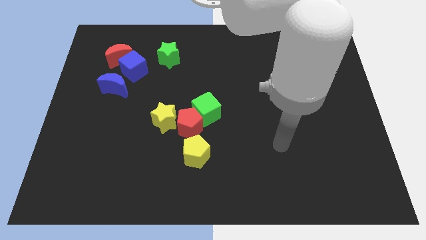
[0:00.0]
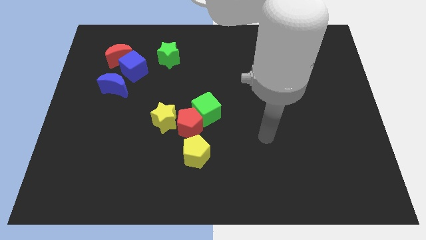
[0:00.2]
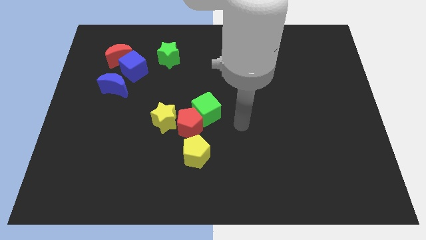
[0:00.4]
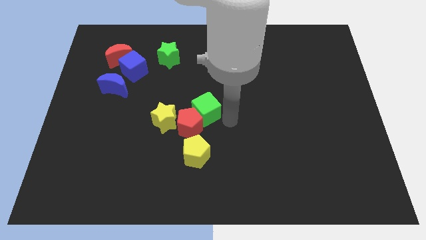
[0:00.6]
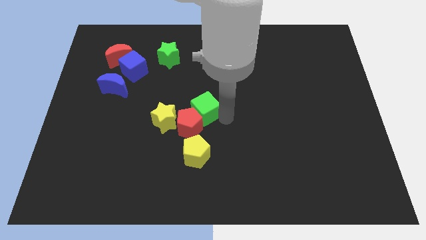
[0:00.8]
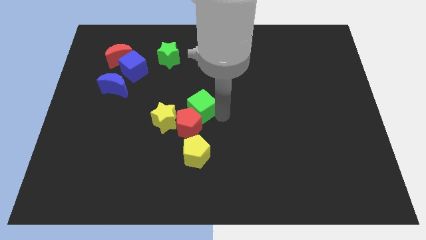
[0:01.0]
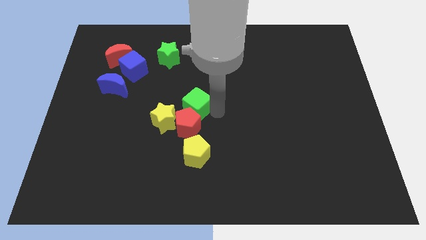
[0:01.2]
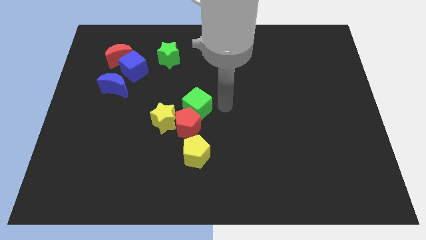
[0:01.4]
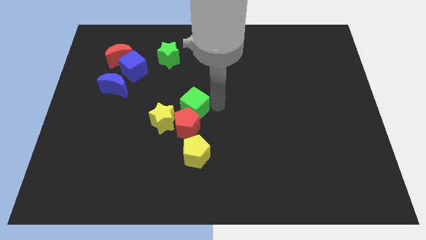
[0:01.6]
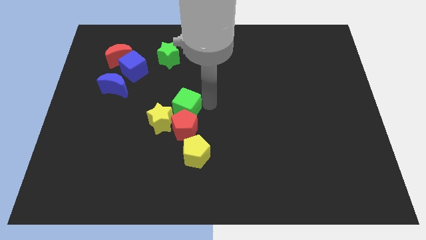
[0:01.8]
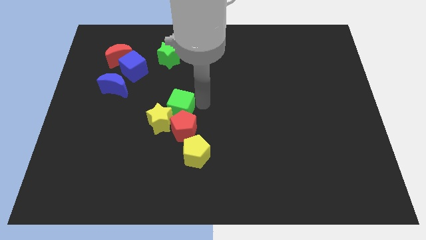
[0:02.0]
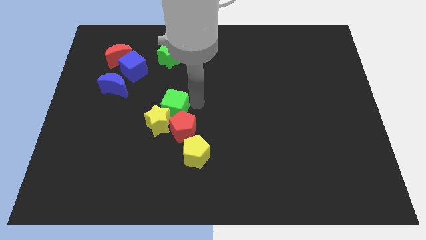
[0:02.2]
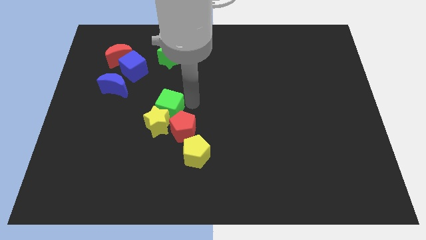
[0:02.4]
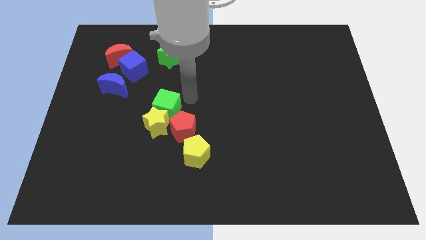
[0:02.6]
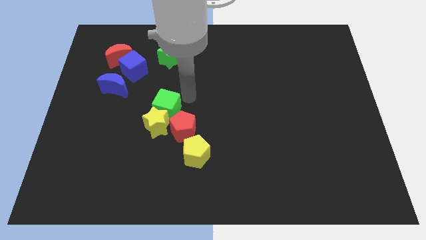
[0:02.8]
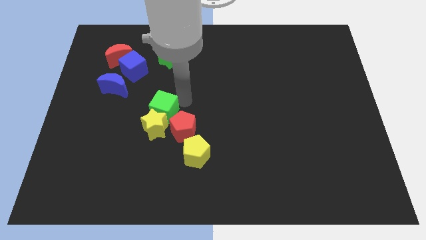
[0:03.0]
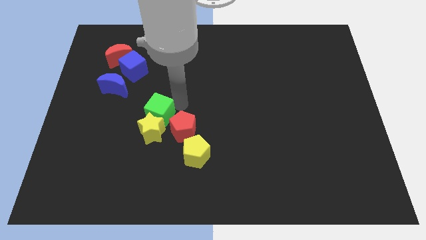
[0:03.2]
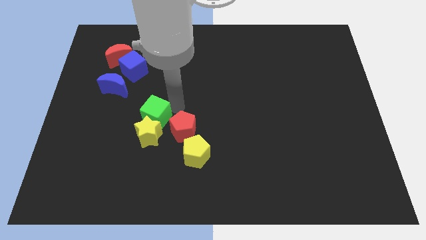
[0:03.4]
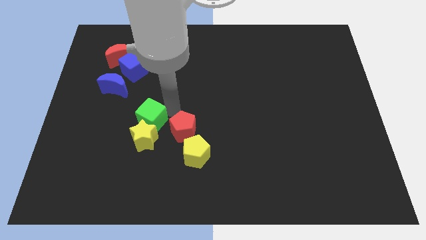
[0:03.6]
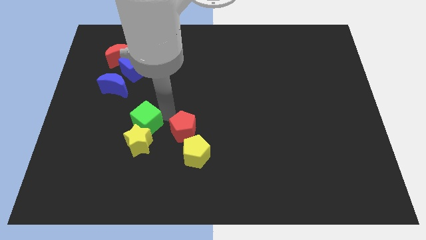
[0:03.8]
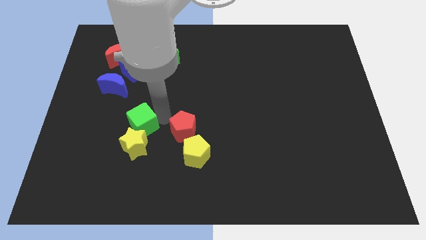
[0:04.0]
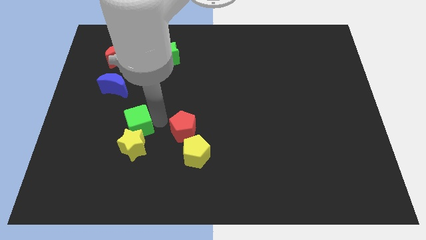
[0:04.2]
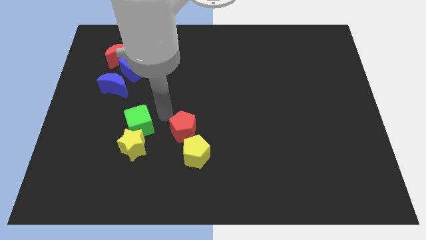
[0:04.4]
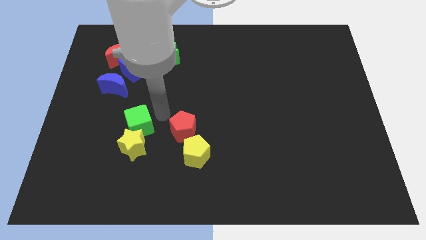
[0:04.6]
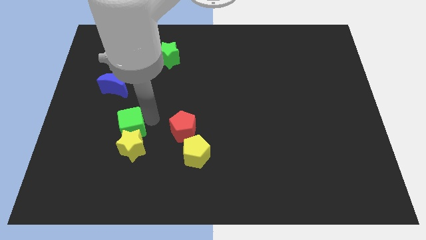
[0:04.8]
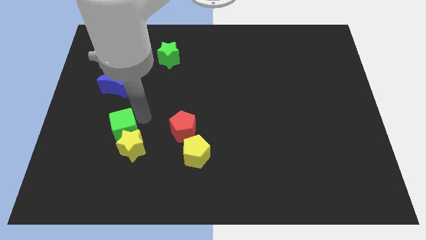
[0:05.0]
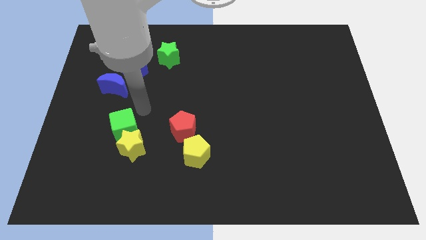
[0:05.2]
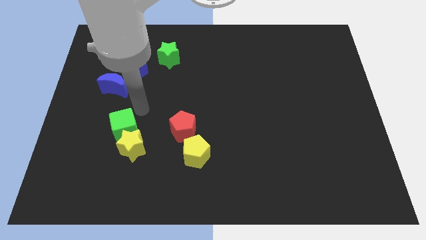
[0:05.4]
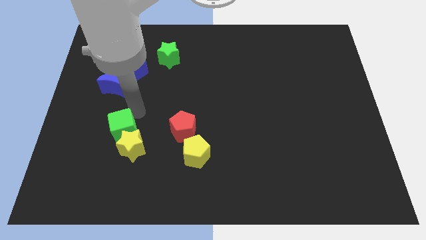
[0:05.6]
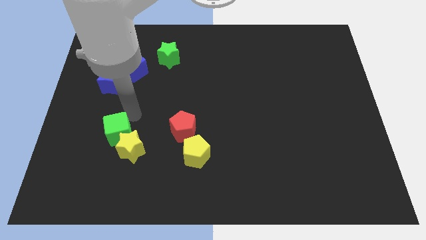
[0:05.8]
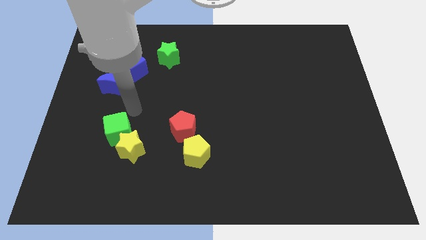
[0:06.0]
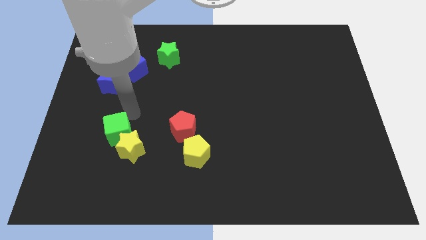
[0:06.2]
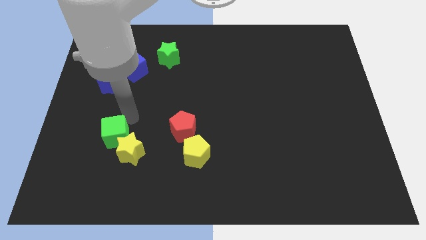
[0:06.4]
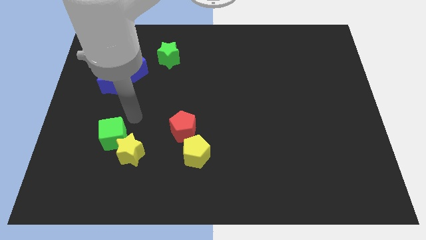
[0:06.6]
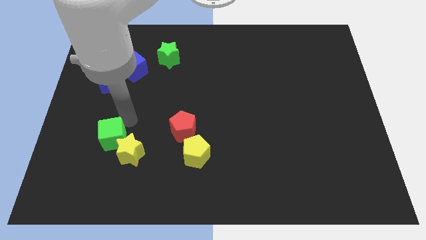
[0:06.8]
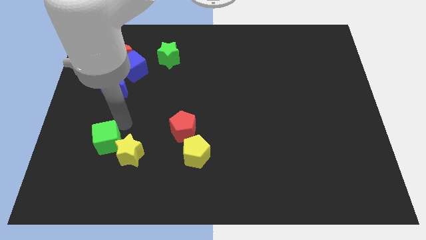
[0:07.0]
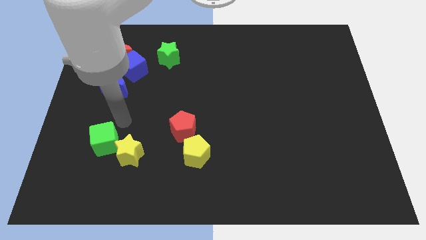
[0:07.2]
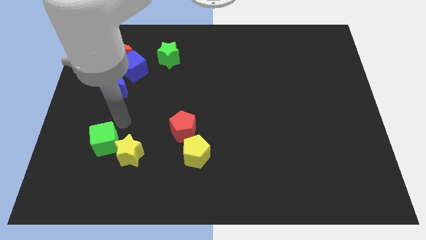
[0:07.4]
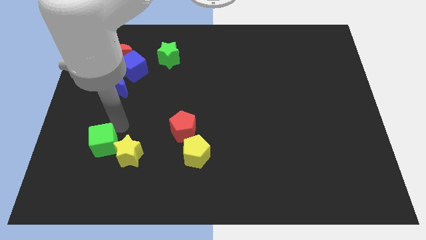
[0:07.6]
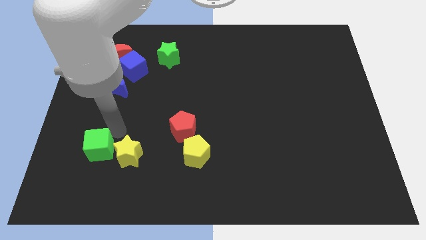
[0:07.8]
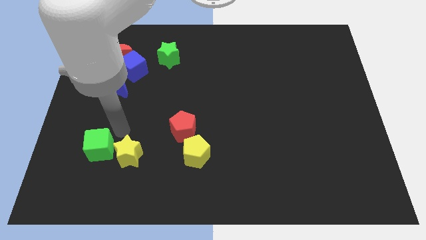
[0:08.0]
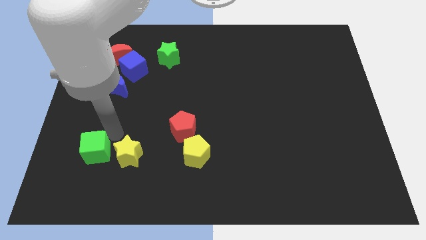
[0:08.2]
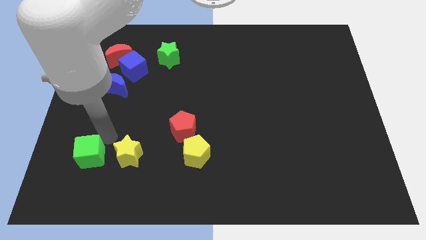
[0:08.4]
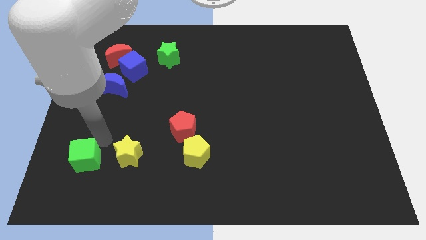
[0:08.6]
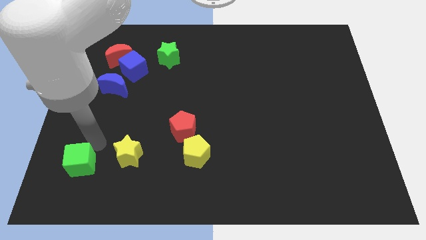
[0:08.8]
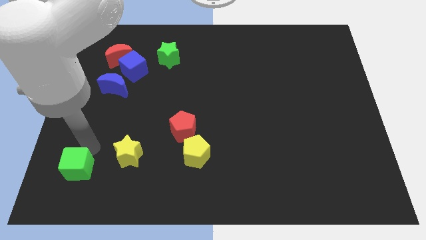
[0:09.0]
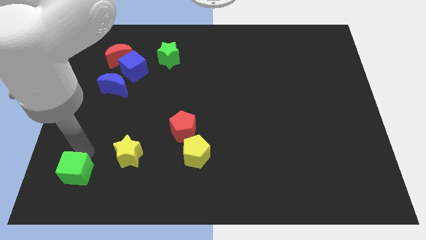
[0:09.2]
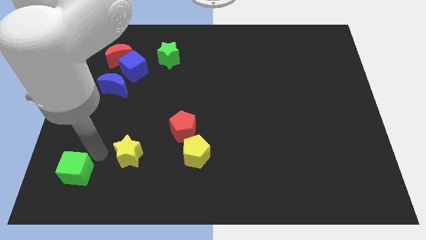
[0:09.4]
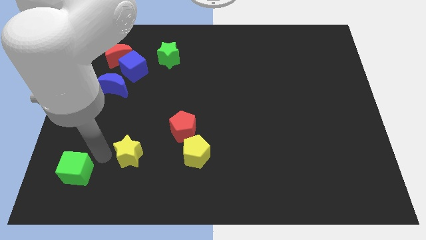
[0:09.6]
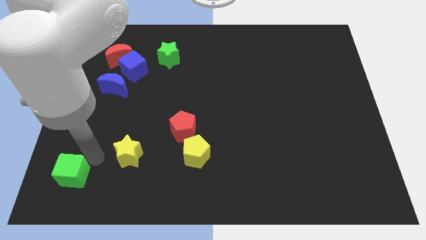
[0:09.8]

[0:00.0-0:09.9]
move the green cube to the bottom left

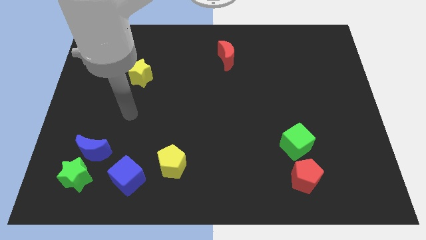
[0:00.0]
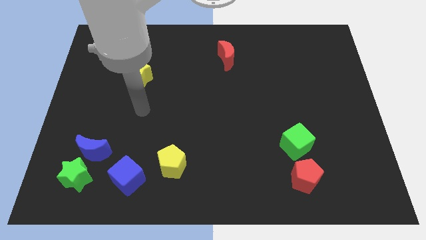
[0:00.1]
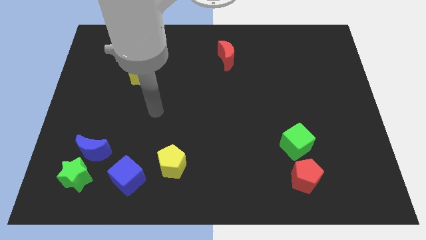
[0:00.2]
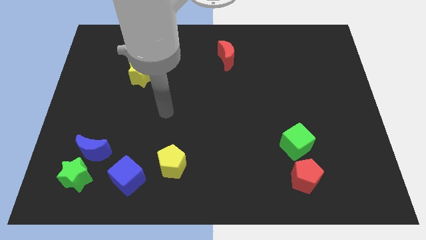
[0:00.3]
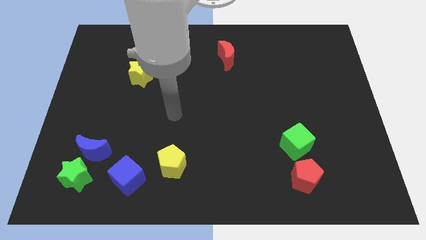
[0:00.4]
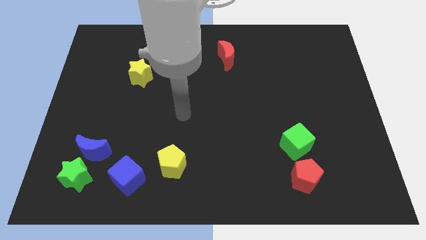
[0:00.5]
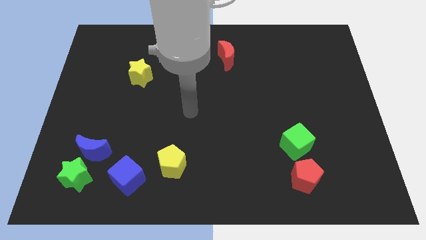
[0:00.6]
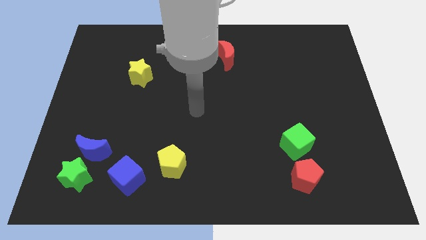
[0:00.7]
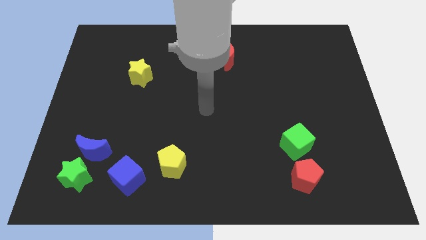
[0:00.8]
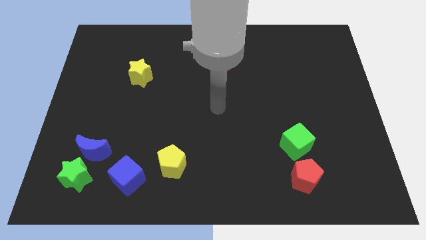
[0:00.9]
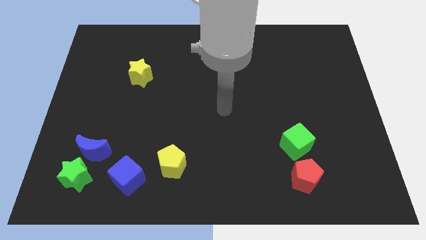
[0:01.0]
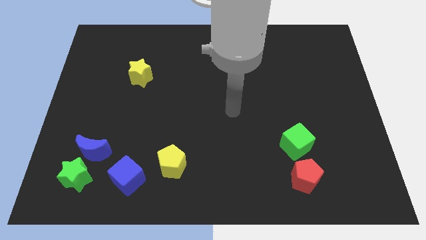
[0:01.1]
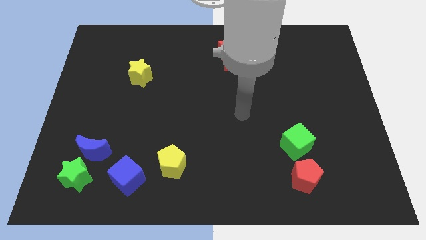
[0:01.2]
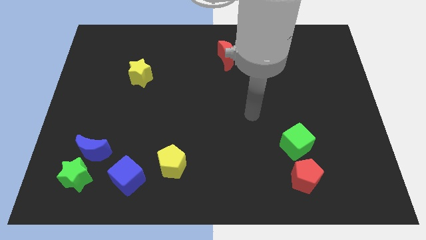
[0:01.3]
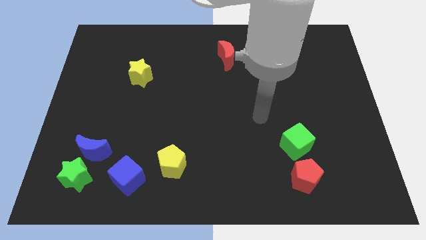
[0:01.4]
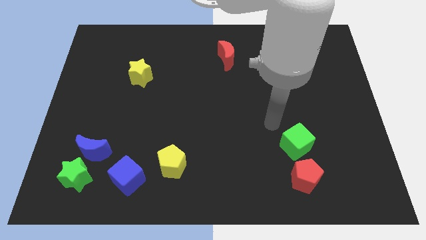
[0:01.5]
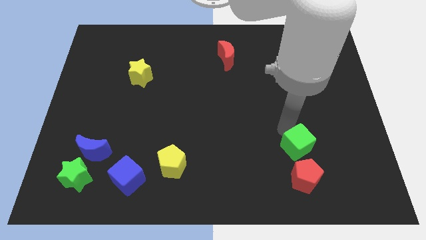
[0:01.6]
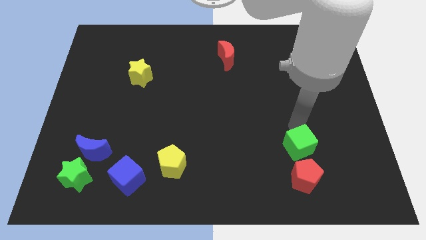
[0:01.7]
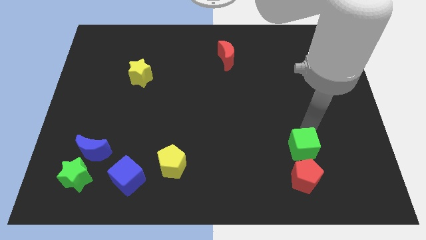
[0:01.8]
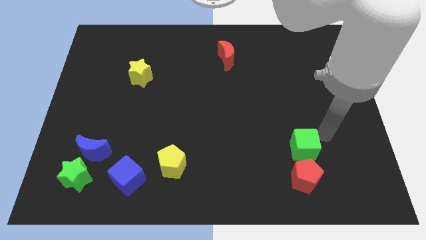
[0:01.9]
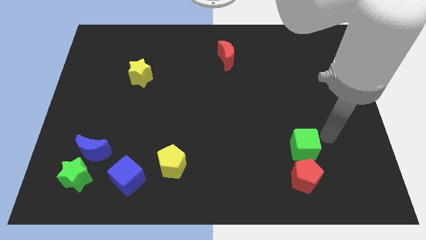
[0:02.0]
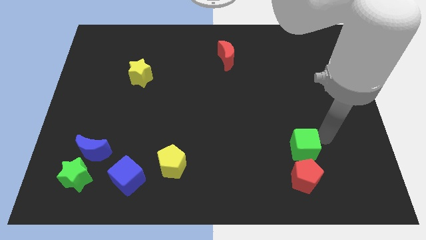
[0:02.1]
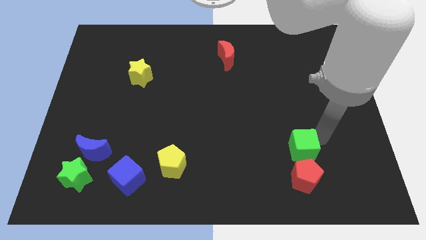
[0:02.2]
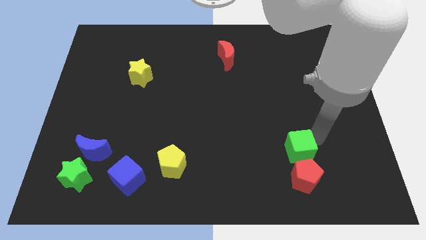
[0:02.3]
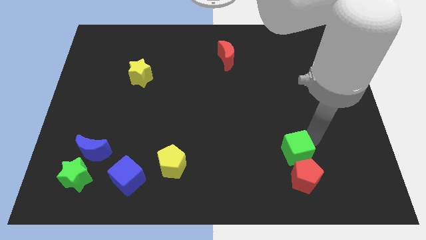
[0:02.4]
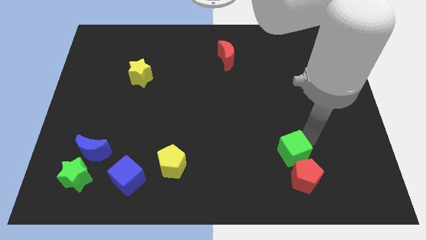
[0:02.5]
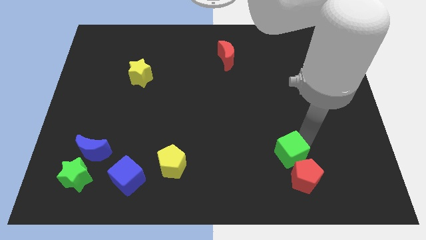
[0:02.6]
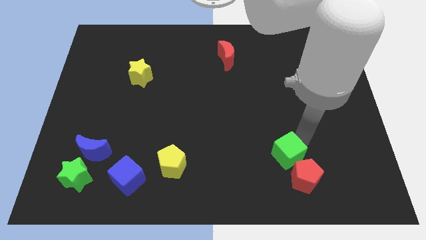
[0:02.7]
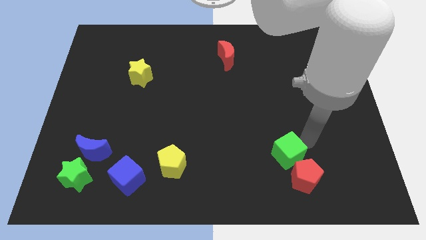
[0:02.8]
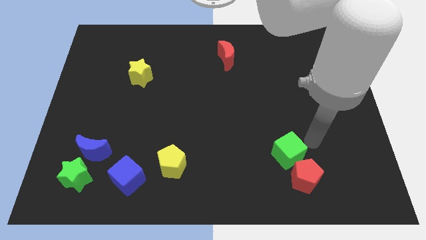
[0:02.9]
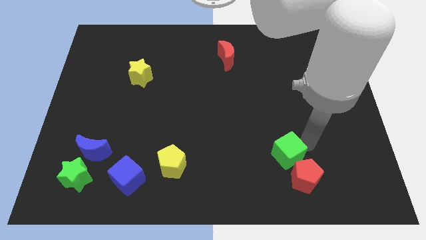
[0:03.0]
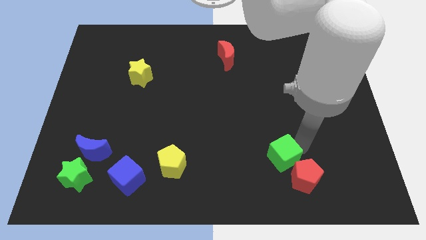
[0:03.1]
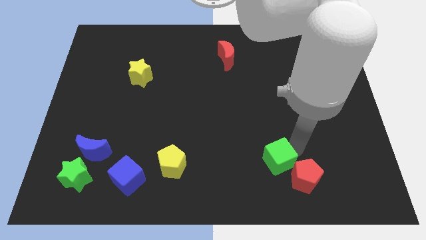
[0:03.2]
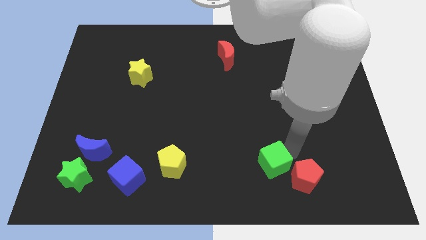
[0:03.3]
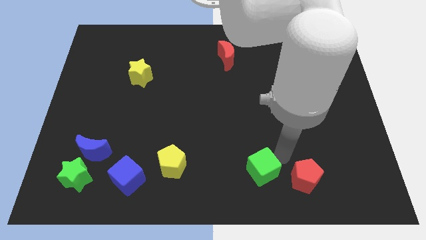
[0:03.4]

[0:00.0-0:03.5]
push the green cube to the bottom side
